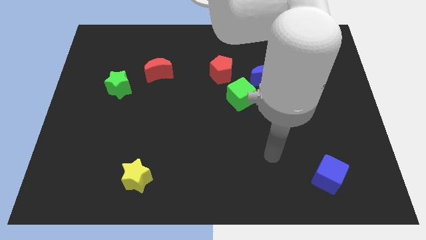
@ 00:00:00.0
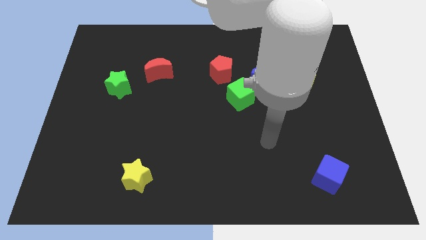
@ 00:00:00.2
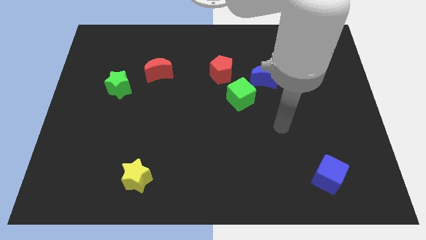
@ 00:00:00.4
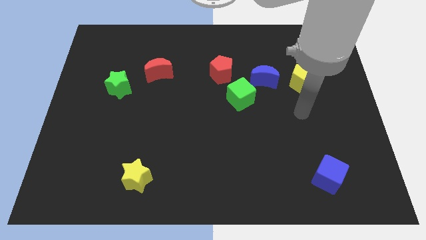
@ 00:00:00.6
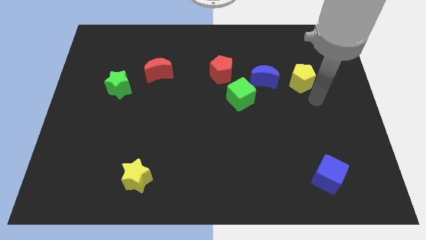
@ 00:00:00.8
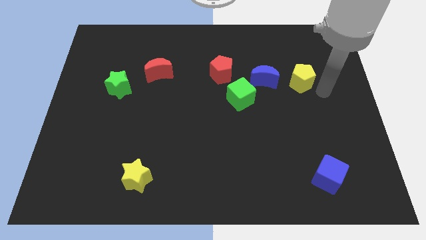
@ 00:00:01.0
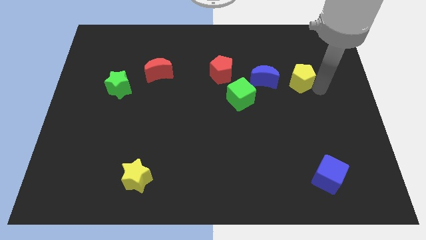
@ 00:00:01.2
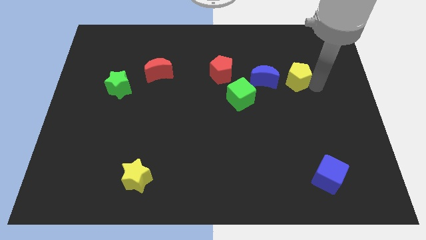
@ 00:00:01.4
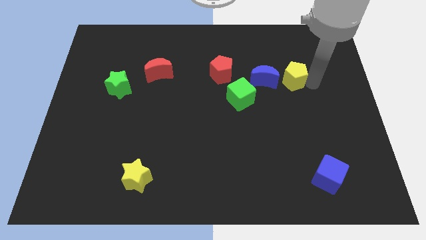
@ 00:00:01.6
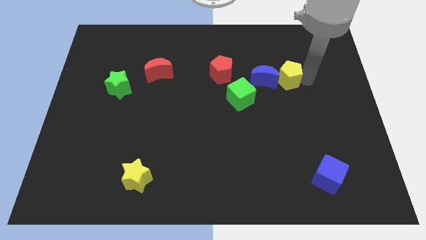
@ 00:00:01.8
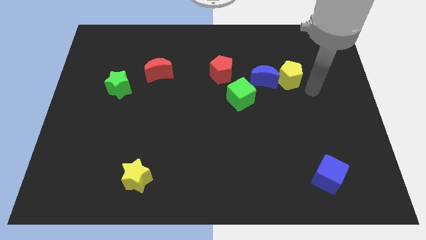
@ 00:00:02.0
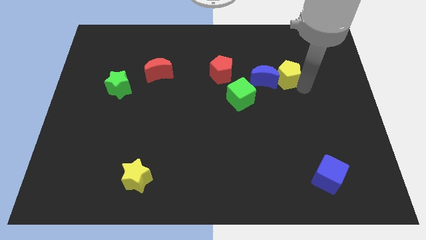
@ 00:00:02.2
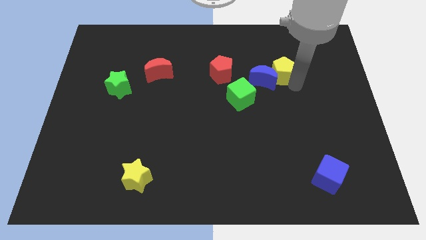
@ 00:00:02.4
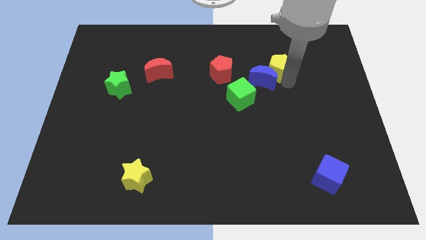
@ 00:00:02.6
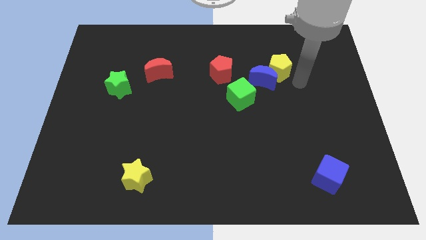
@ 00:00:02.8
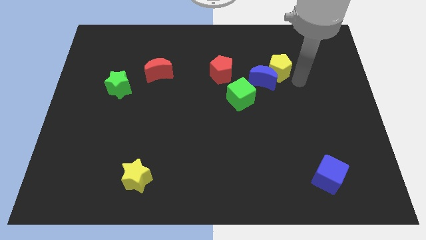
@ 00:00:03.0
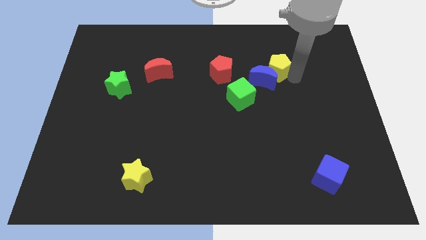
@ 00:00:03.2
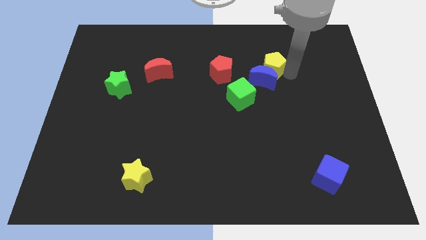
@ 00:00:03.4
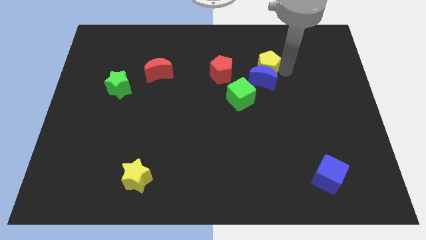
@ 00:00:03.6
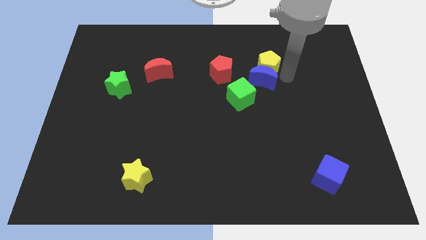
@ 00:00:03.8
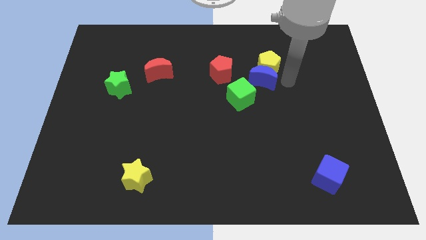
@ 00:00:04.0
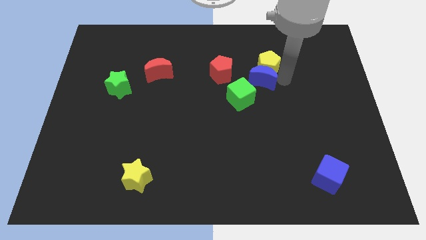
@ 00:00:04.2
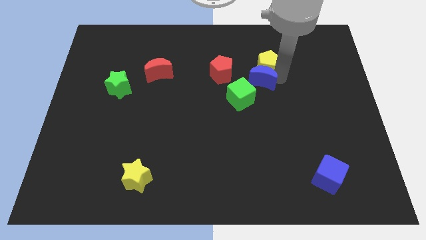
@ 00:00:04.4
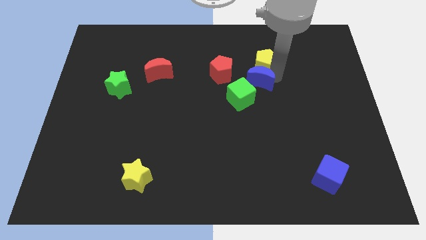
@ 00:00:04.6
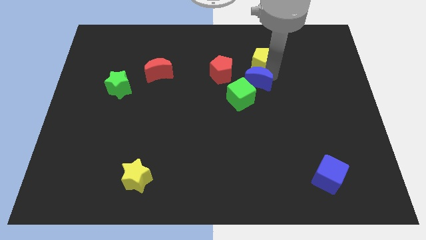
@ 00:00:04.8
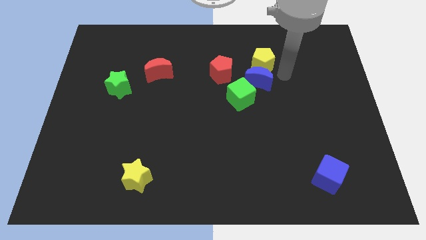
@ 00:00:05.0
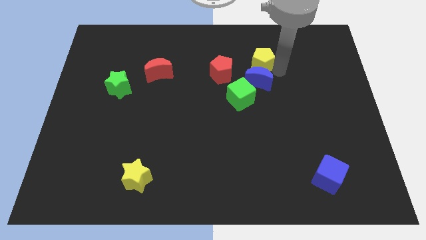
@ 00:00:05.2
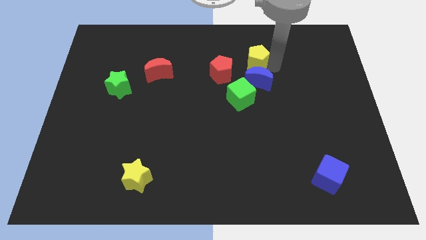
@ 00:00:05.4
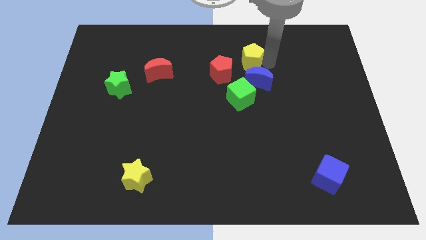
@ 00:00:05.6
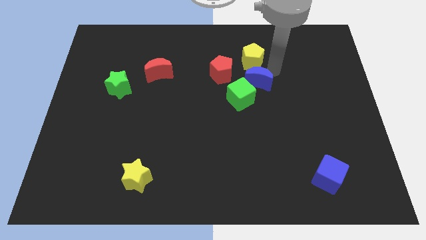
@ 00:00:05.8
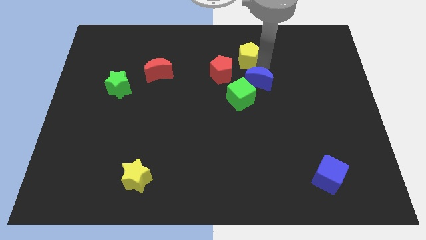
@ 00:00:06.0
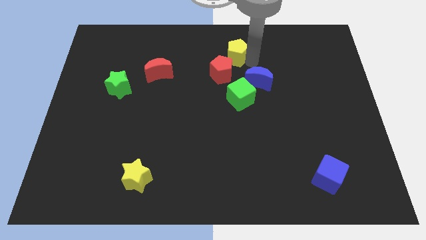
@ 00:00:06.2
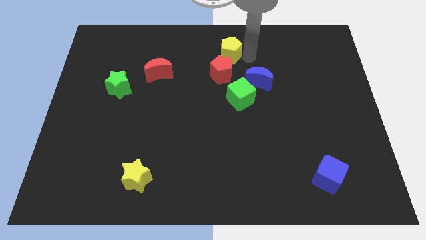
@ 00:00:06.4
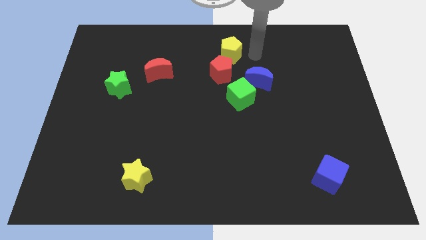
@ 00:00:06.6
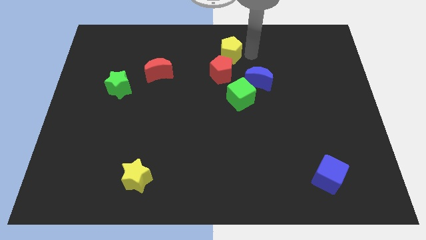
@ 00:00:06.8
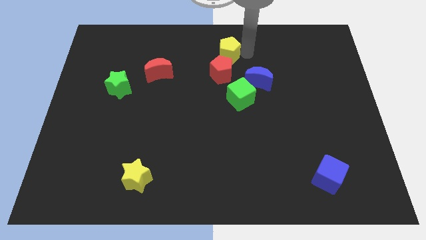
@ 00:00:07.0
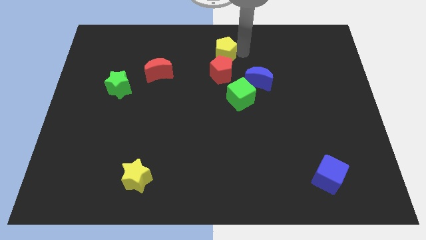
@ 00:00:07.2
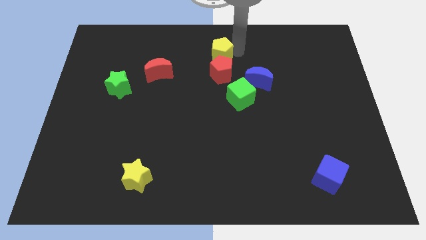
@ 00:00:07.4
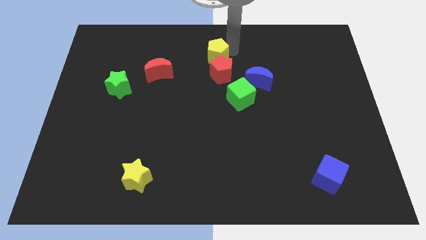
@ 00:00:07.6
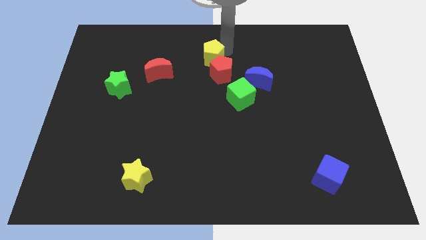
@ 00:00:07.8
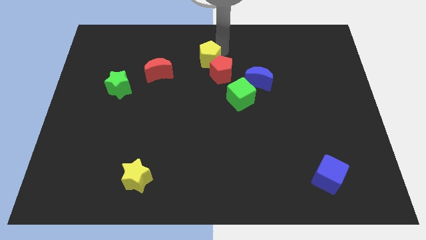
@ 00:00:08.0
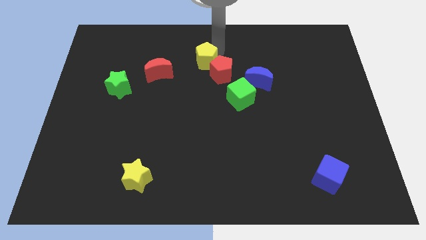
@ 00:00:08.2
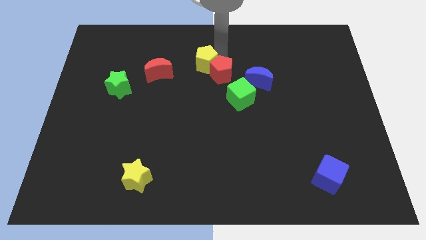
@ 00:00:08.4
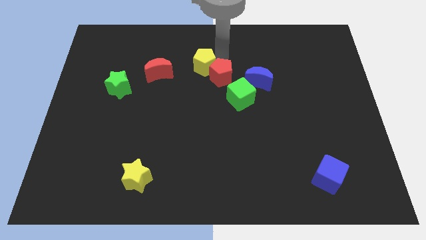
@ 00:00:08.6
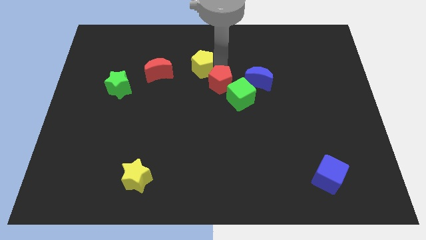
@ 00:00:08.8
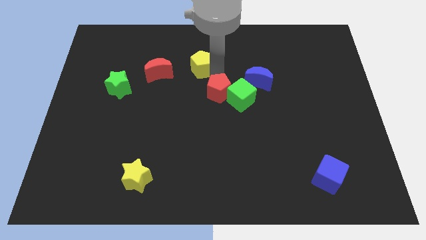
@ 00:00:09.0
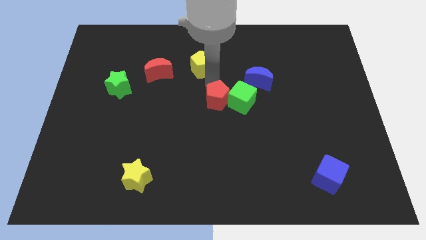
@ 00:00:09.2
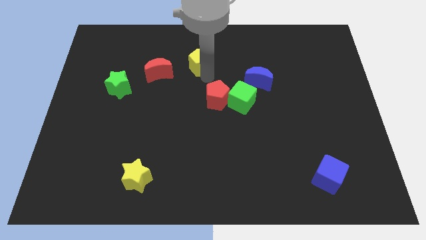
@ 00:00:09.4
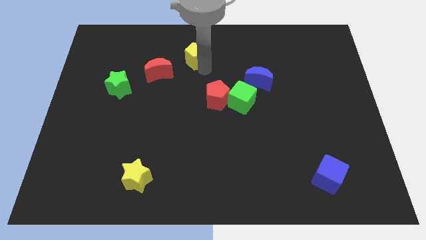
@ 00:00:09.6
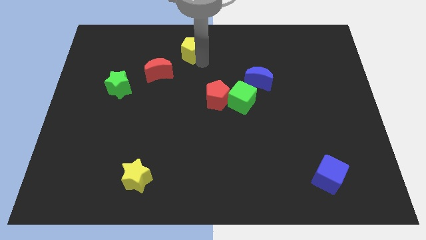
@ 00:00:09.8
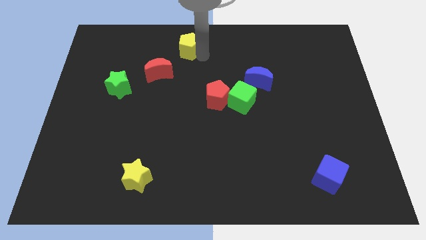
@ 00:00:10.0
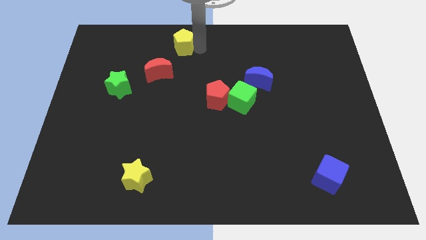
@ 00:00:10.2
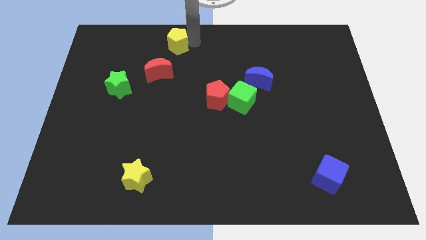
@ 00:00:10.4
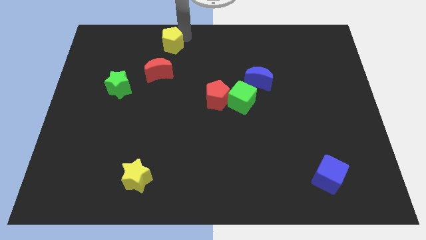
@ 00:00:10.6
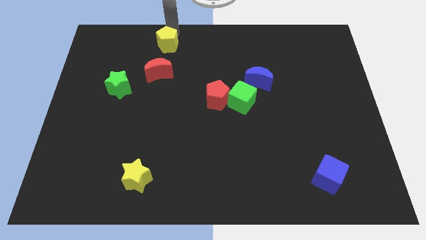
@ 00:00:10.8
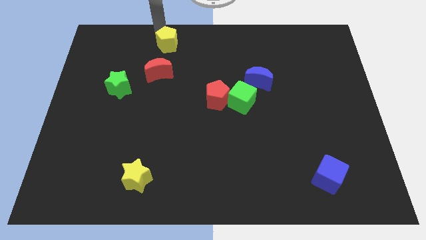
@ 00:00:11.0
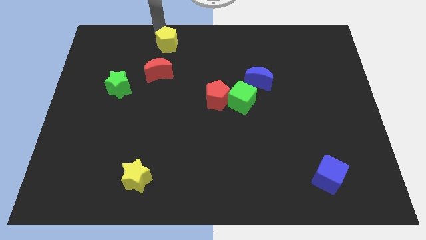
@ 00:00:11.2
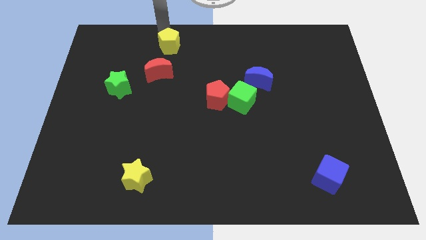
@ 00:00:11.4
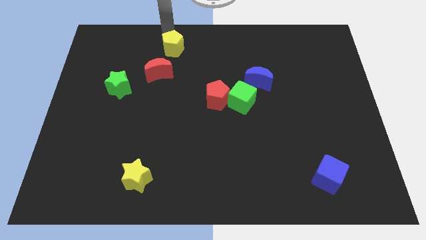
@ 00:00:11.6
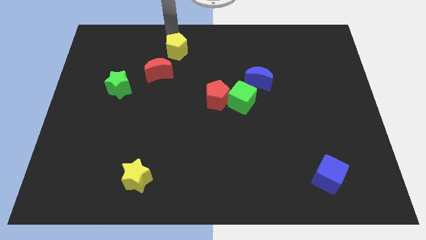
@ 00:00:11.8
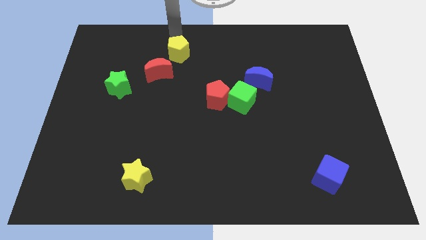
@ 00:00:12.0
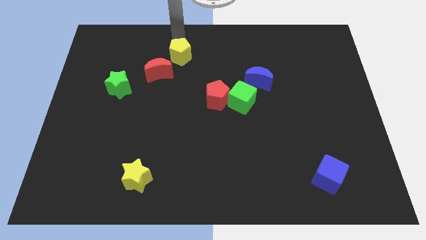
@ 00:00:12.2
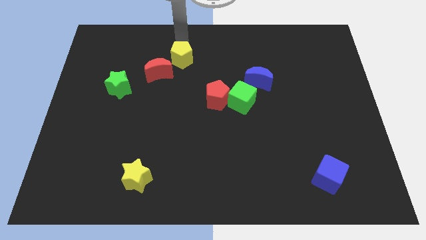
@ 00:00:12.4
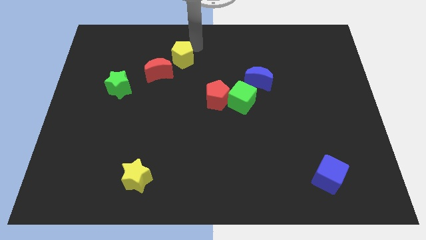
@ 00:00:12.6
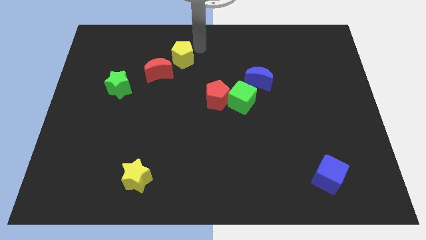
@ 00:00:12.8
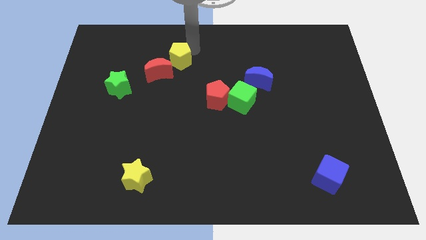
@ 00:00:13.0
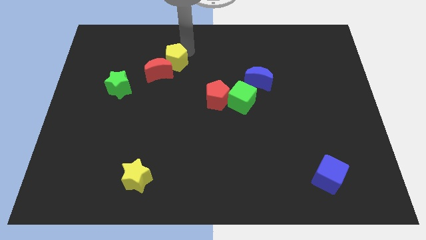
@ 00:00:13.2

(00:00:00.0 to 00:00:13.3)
put the yellow pentagon close to the red moon

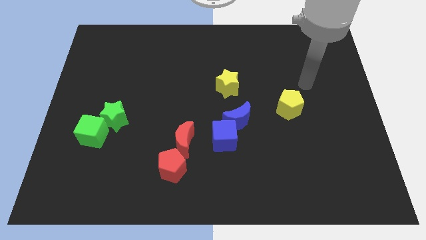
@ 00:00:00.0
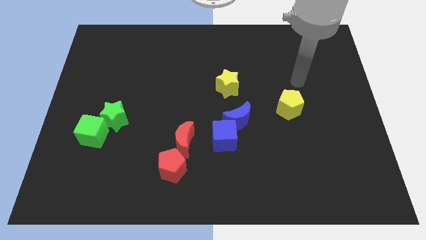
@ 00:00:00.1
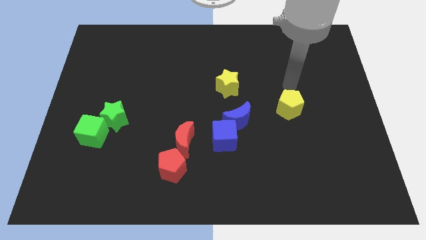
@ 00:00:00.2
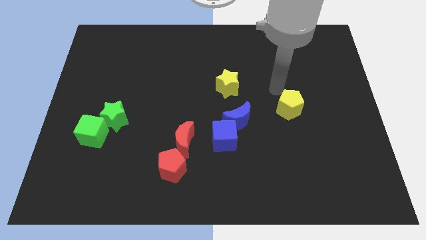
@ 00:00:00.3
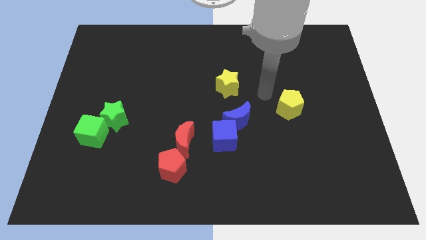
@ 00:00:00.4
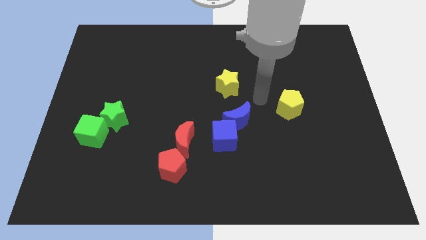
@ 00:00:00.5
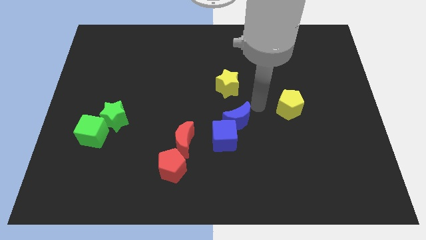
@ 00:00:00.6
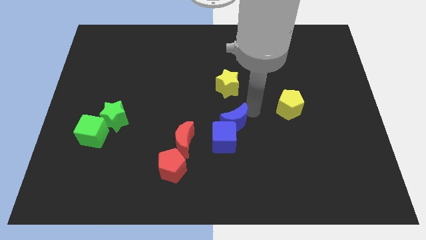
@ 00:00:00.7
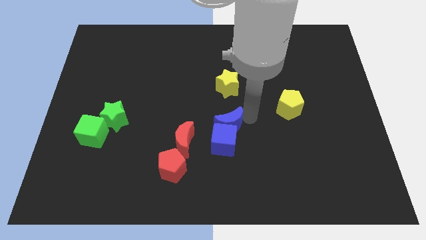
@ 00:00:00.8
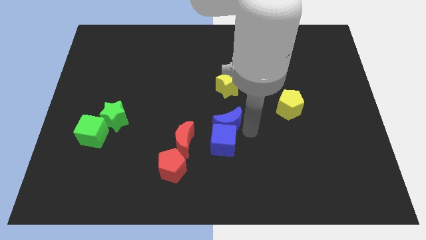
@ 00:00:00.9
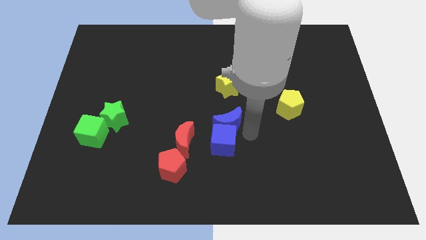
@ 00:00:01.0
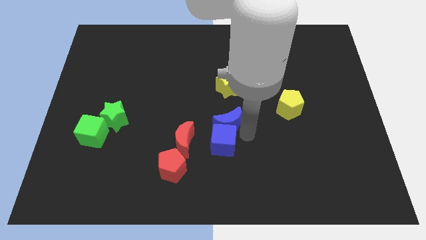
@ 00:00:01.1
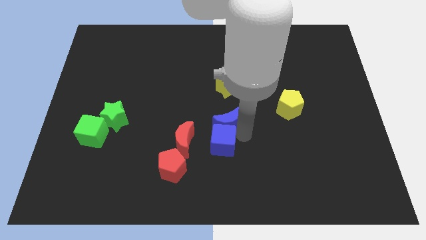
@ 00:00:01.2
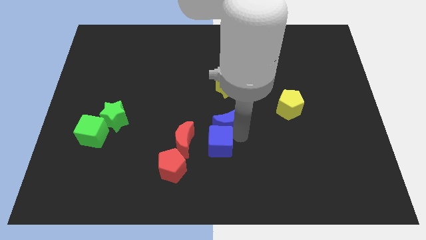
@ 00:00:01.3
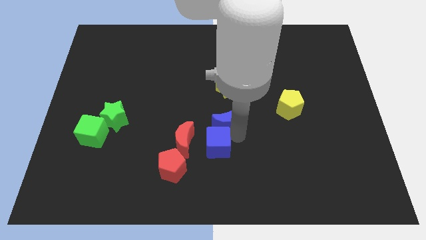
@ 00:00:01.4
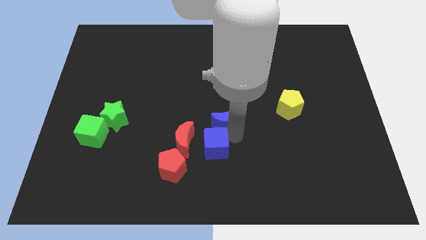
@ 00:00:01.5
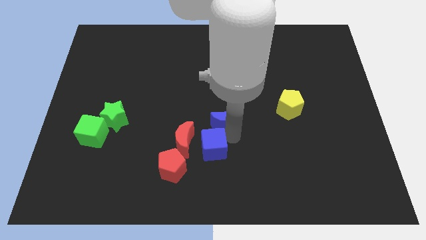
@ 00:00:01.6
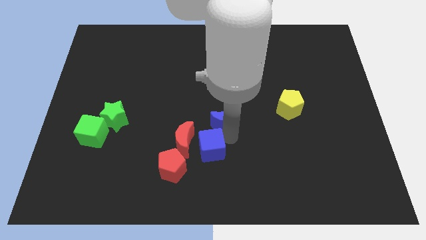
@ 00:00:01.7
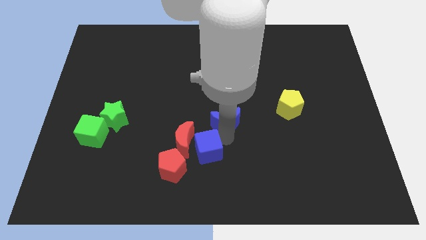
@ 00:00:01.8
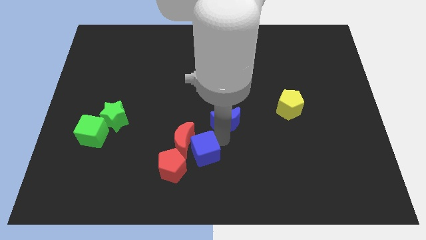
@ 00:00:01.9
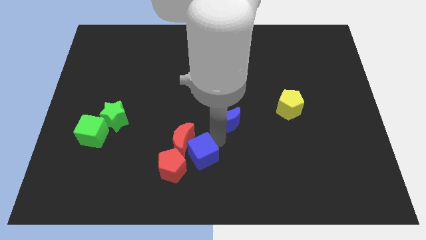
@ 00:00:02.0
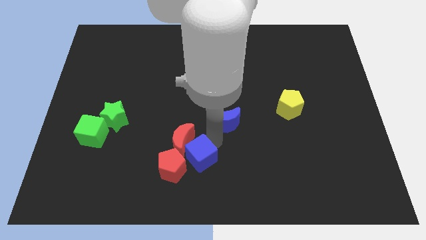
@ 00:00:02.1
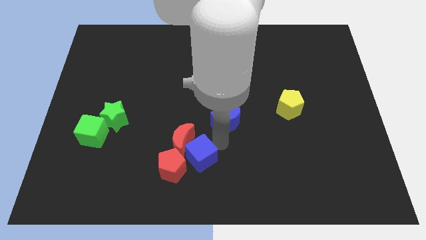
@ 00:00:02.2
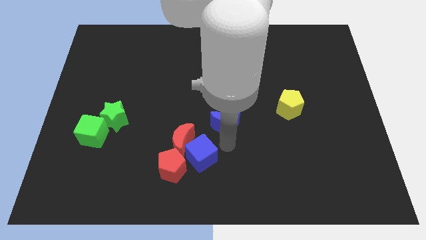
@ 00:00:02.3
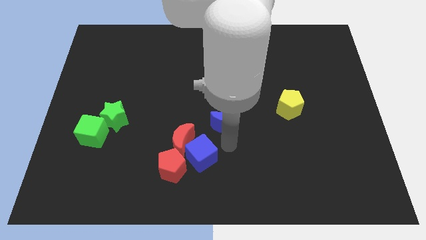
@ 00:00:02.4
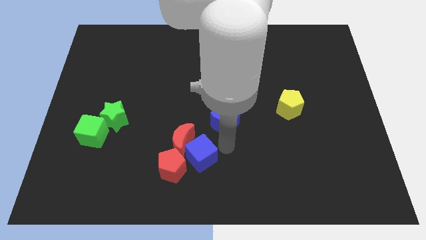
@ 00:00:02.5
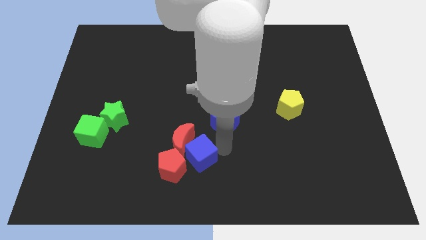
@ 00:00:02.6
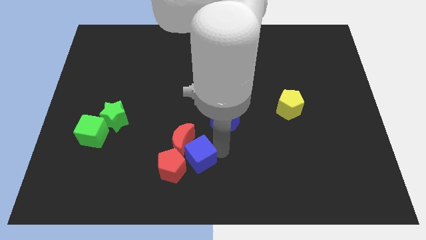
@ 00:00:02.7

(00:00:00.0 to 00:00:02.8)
put the blue cube to the red pentagon
